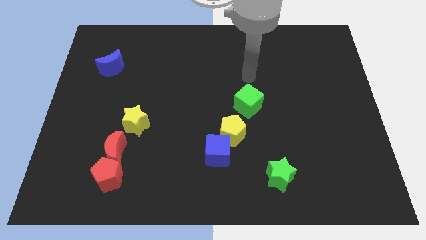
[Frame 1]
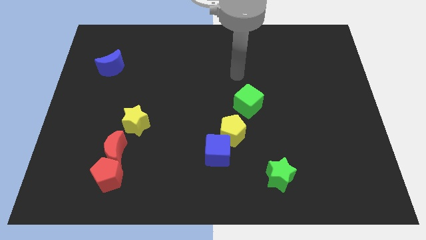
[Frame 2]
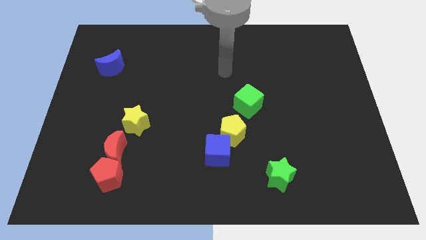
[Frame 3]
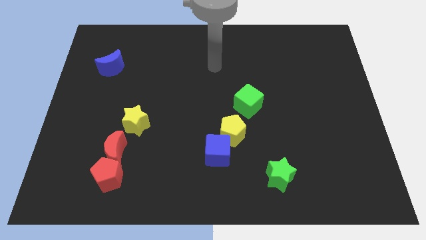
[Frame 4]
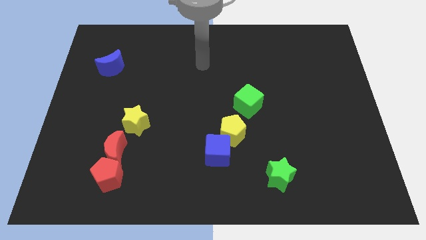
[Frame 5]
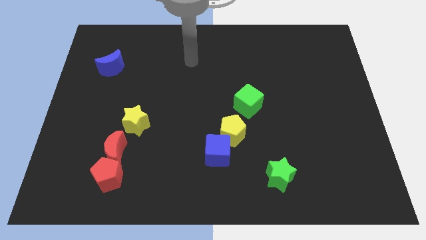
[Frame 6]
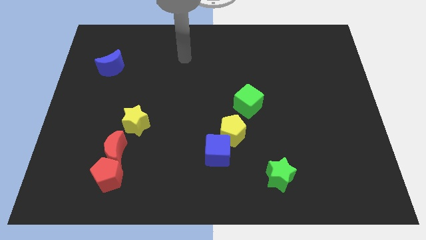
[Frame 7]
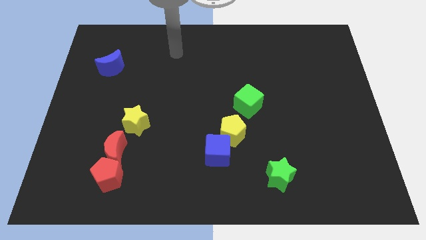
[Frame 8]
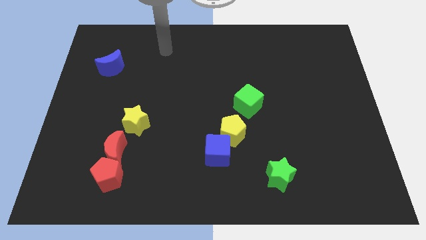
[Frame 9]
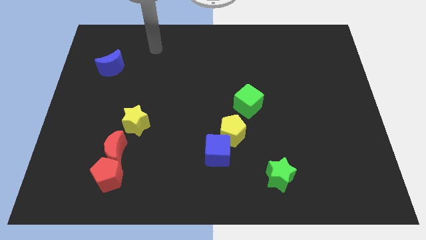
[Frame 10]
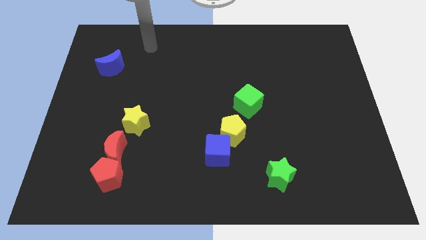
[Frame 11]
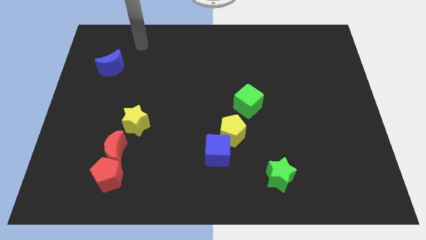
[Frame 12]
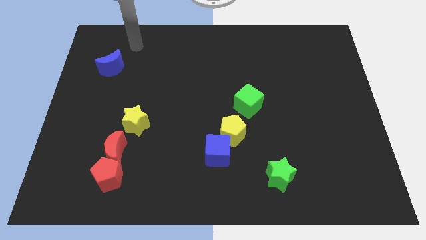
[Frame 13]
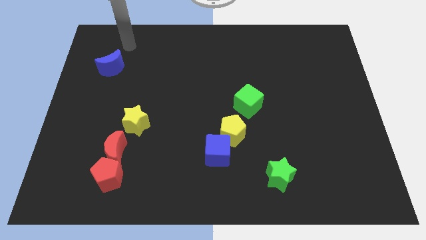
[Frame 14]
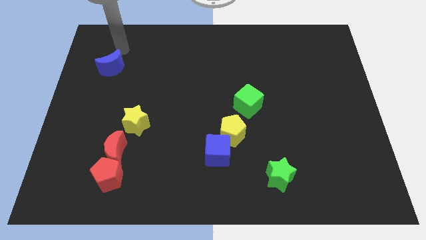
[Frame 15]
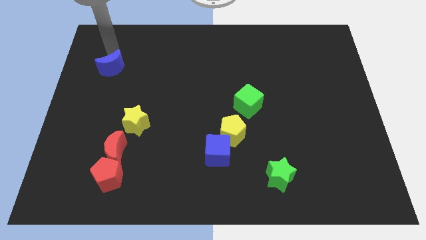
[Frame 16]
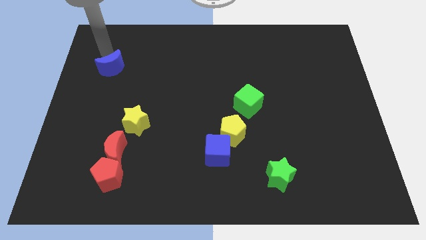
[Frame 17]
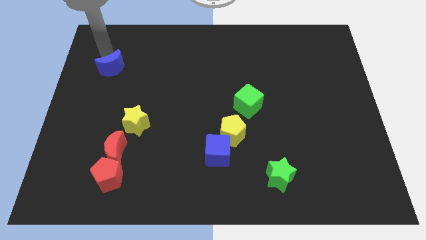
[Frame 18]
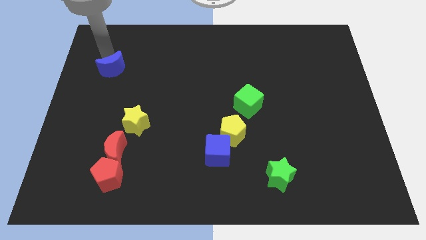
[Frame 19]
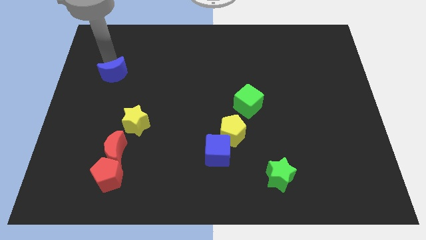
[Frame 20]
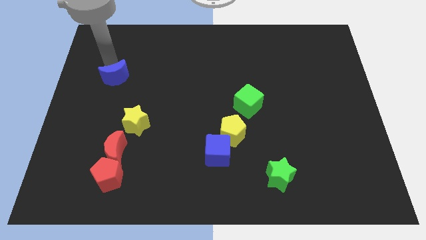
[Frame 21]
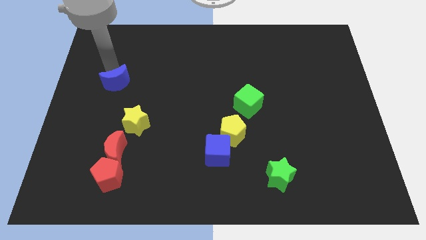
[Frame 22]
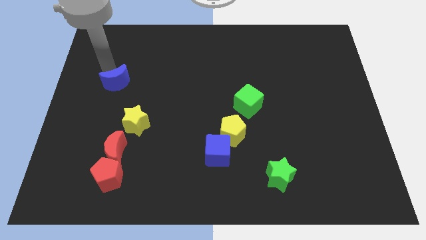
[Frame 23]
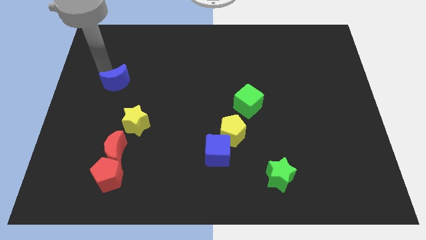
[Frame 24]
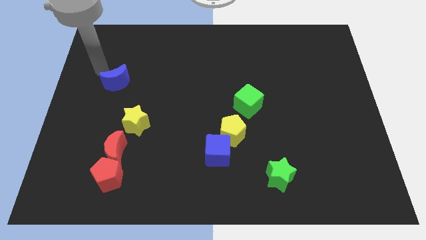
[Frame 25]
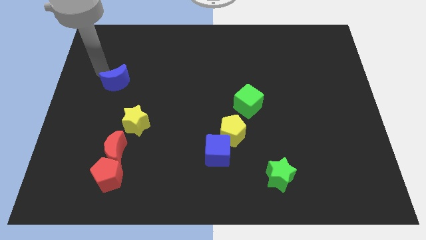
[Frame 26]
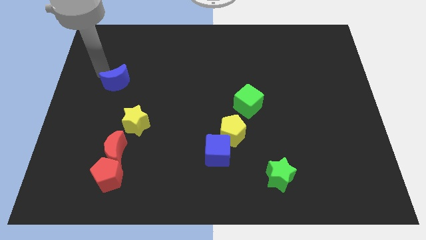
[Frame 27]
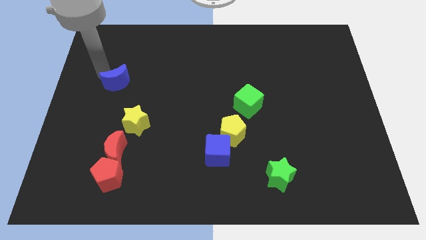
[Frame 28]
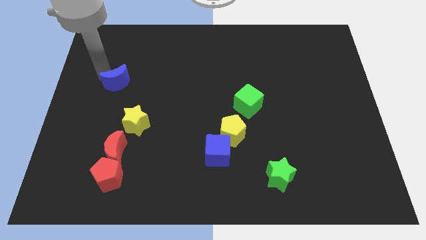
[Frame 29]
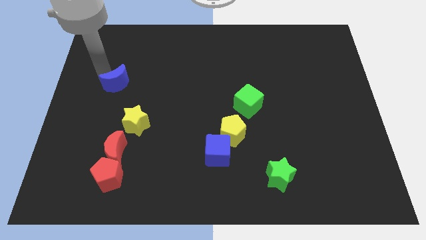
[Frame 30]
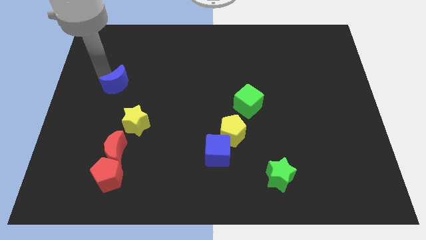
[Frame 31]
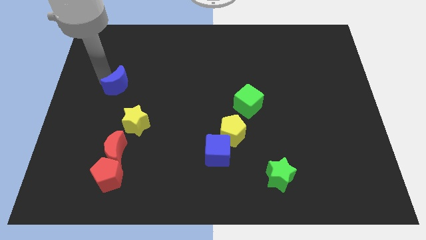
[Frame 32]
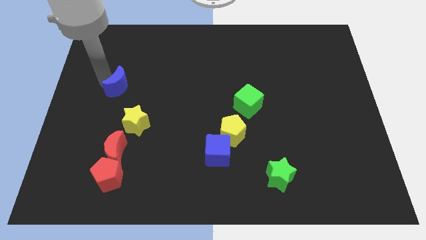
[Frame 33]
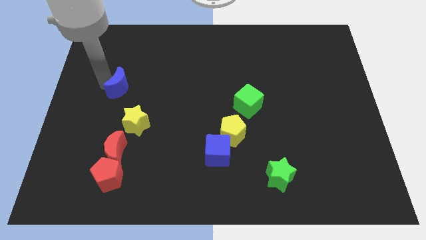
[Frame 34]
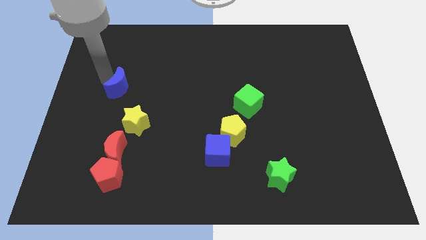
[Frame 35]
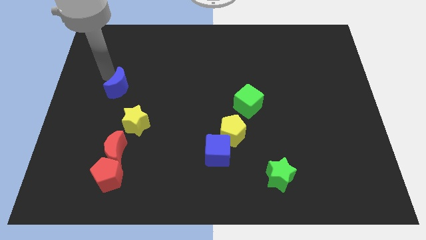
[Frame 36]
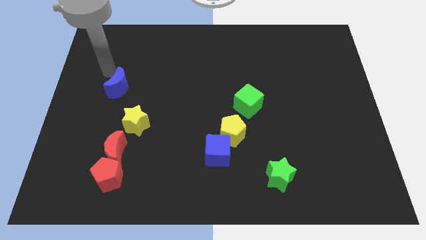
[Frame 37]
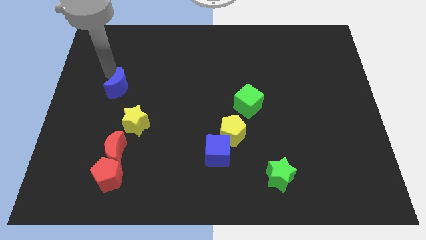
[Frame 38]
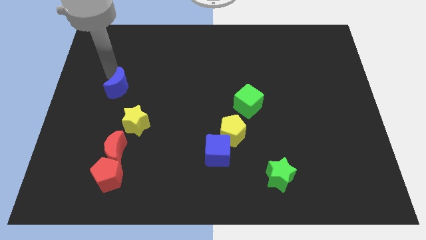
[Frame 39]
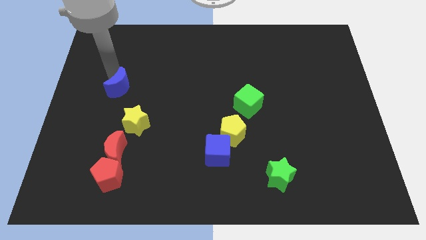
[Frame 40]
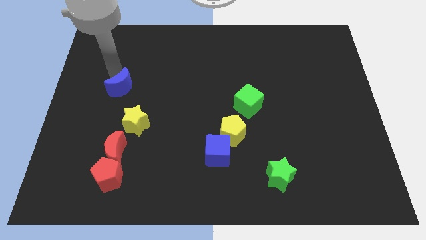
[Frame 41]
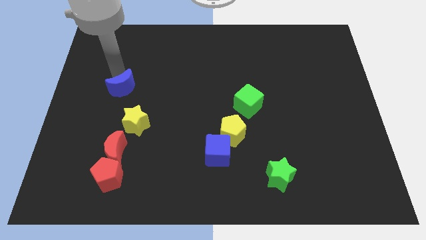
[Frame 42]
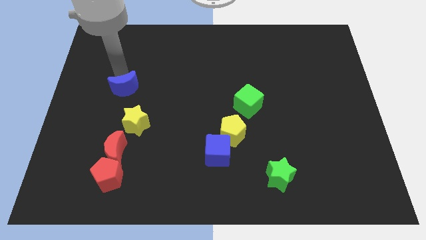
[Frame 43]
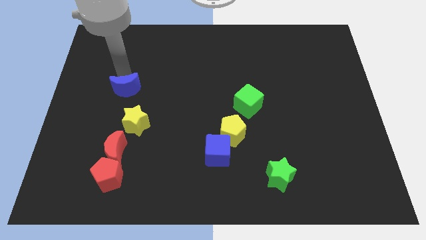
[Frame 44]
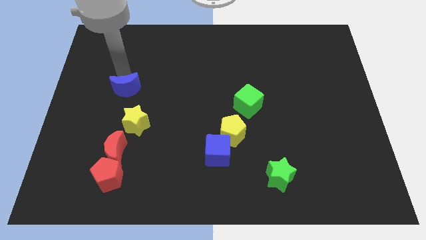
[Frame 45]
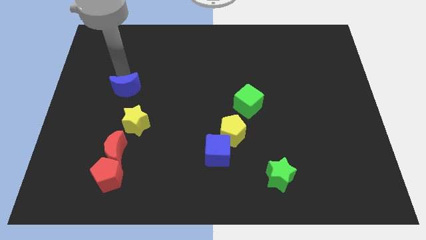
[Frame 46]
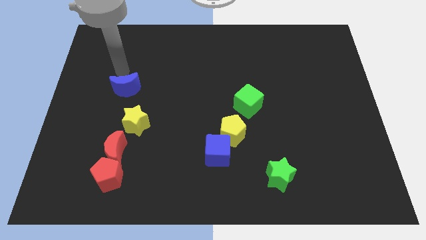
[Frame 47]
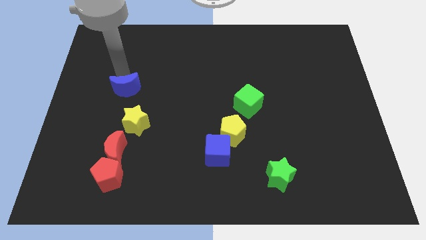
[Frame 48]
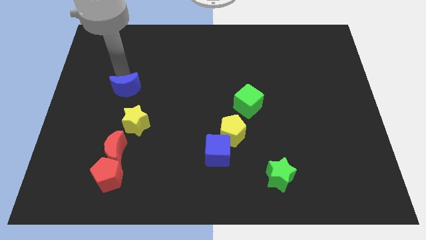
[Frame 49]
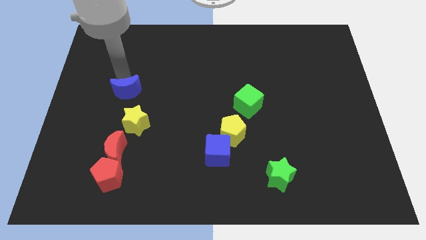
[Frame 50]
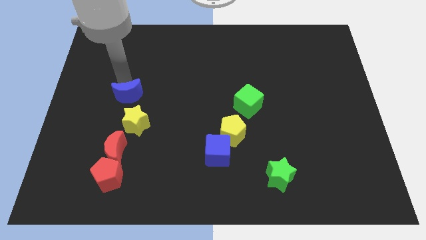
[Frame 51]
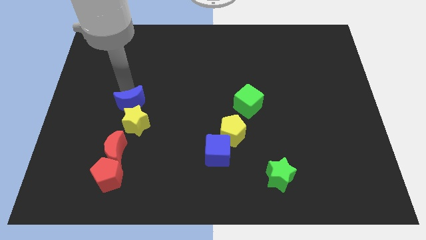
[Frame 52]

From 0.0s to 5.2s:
put the blue moon close to the yellow star

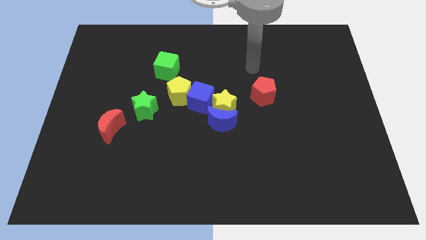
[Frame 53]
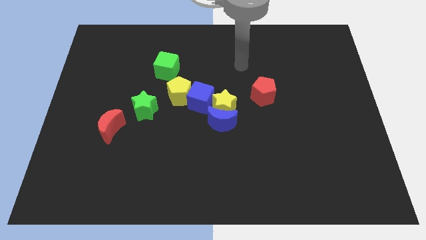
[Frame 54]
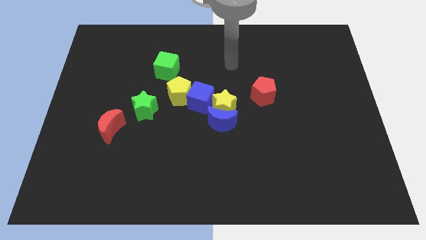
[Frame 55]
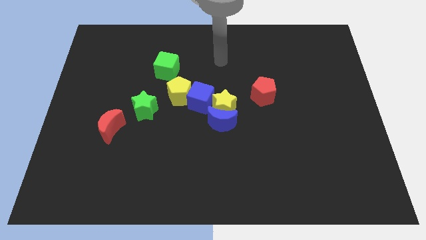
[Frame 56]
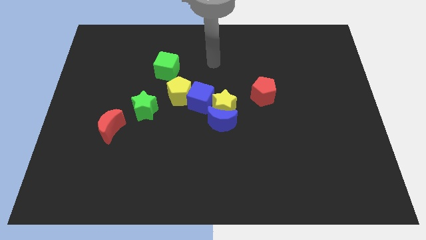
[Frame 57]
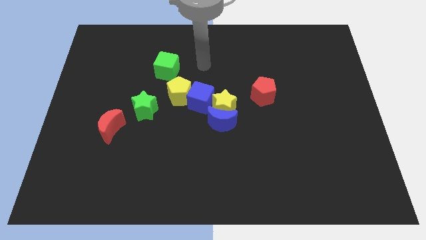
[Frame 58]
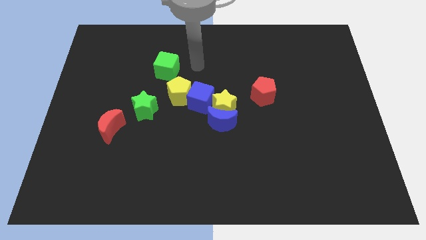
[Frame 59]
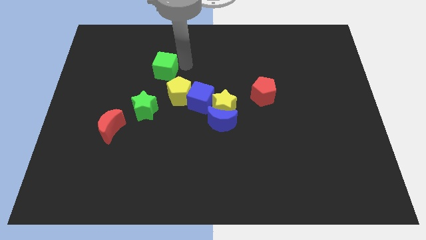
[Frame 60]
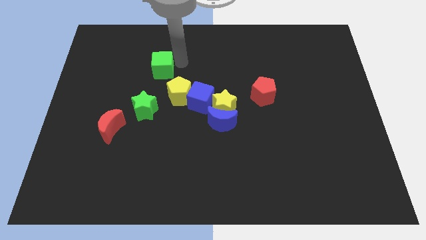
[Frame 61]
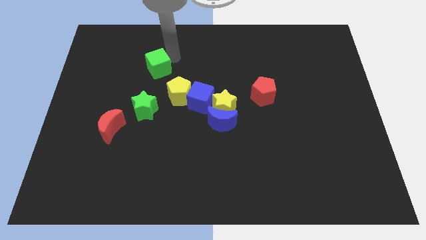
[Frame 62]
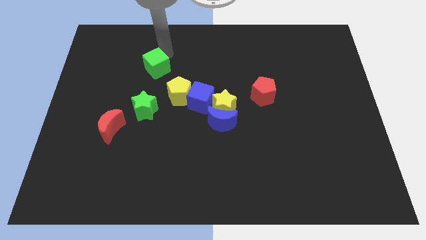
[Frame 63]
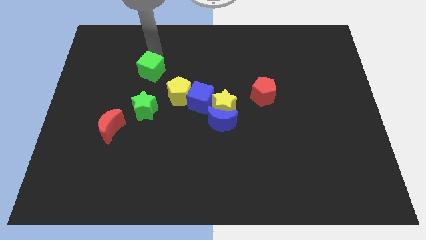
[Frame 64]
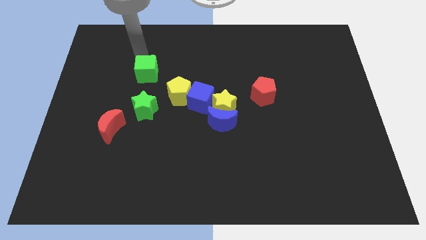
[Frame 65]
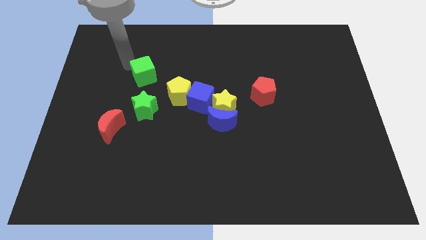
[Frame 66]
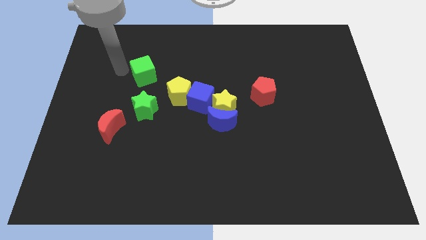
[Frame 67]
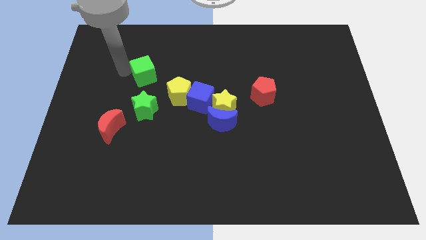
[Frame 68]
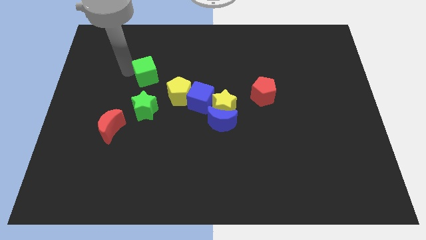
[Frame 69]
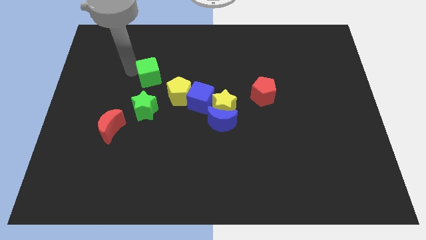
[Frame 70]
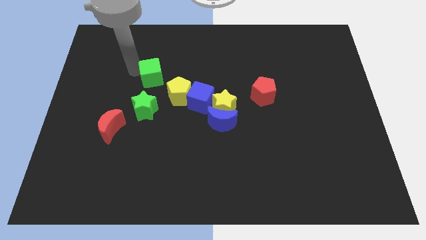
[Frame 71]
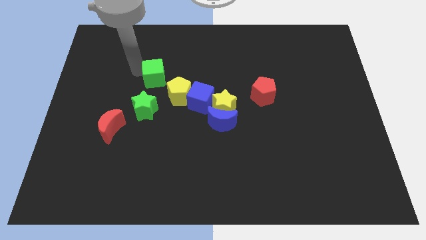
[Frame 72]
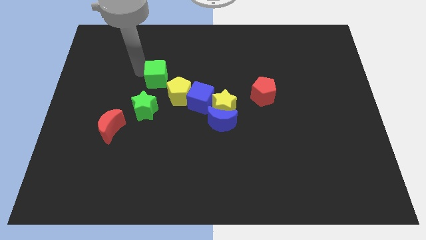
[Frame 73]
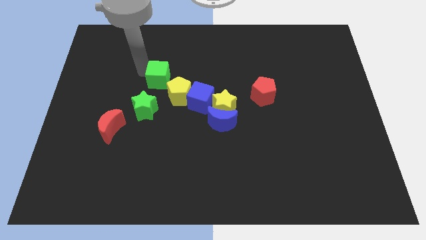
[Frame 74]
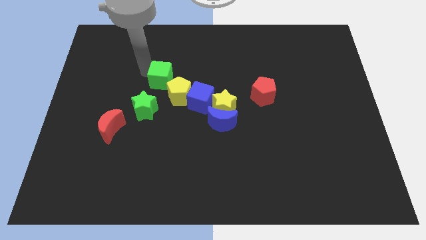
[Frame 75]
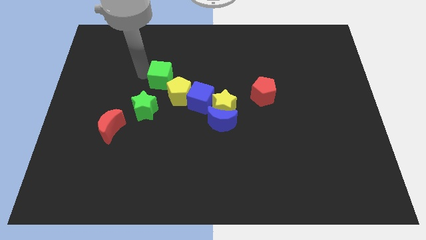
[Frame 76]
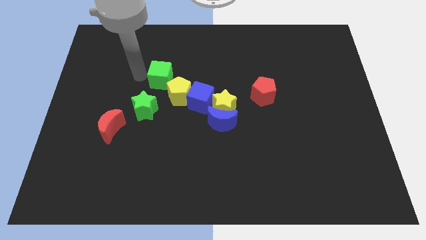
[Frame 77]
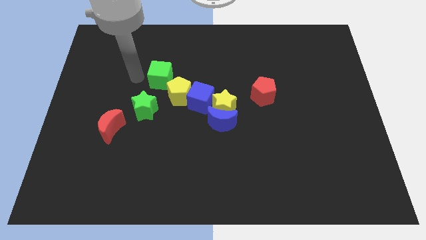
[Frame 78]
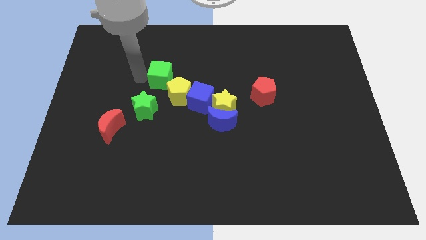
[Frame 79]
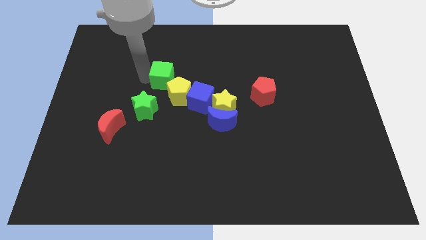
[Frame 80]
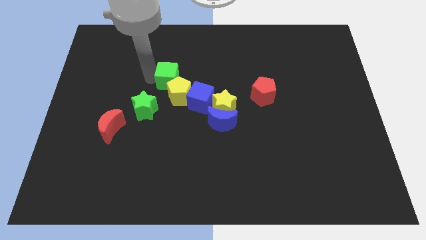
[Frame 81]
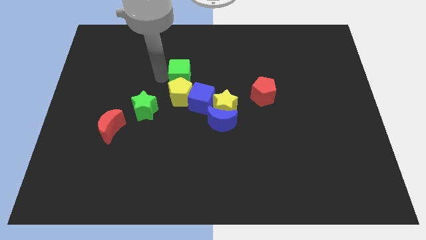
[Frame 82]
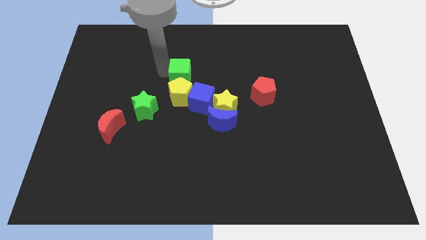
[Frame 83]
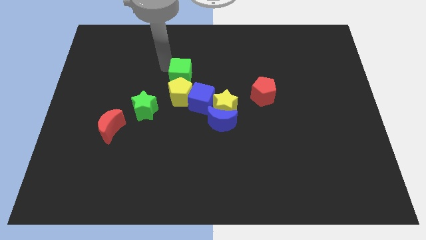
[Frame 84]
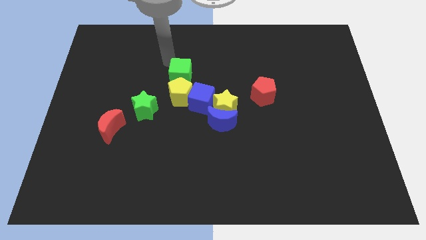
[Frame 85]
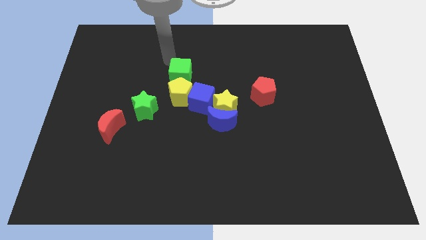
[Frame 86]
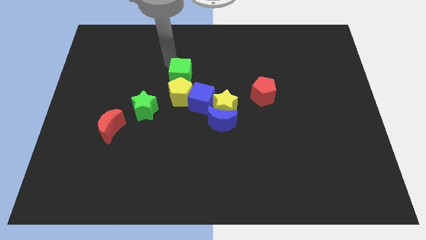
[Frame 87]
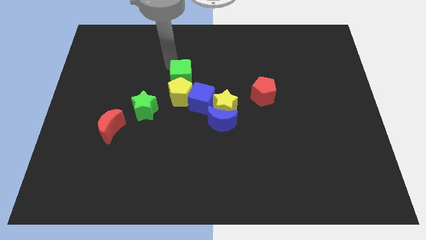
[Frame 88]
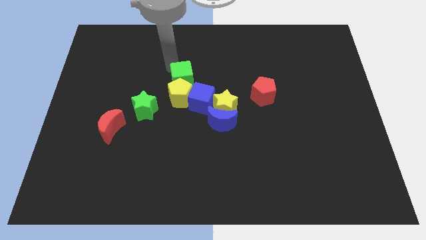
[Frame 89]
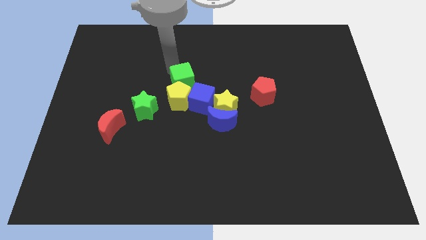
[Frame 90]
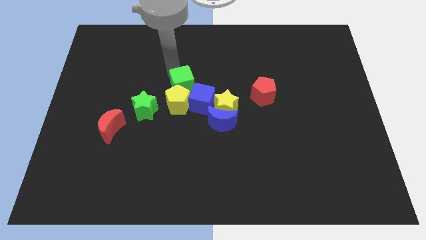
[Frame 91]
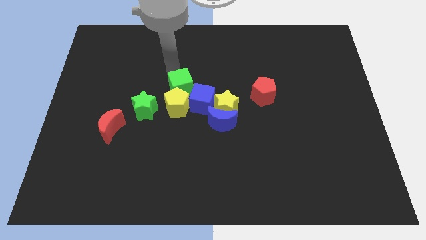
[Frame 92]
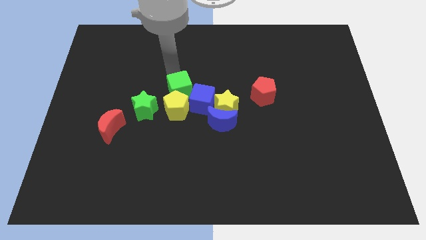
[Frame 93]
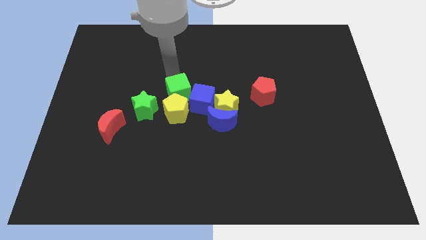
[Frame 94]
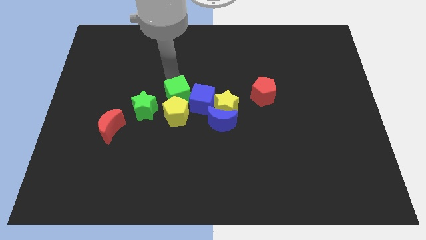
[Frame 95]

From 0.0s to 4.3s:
slide the green cube next to the blue cube
